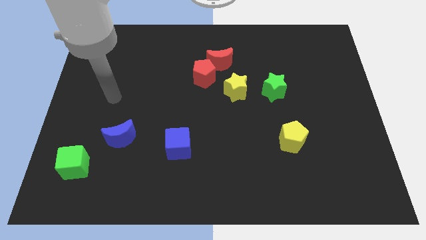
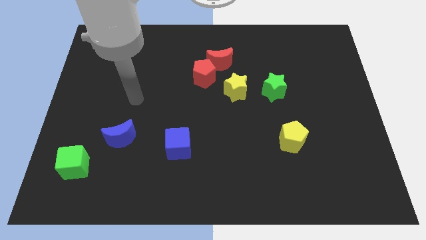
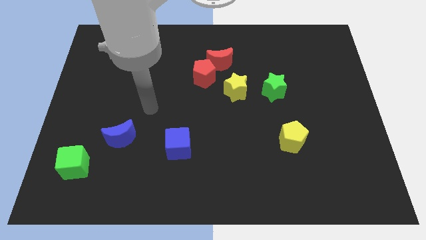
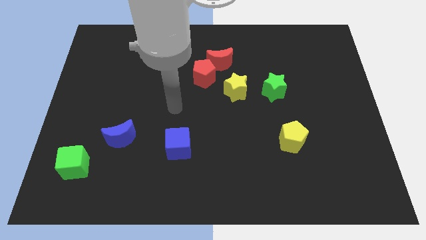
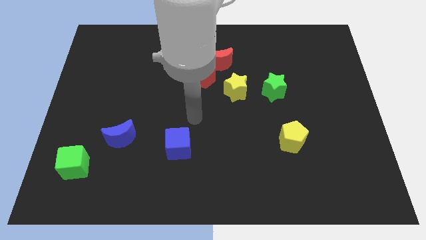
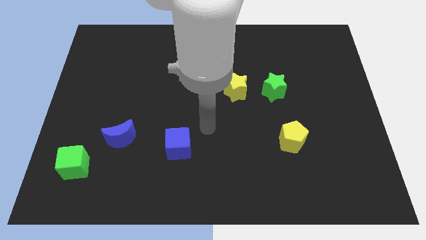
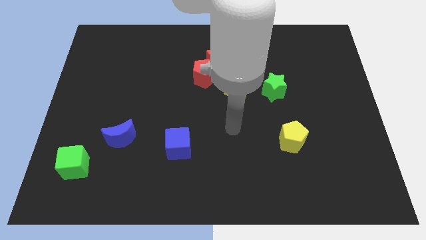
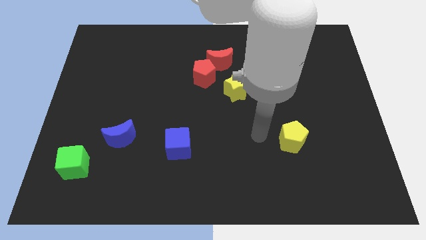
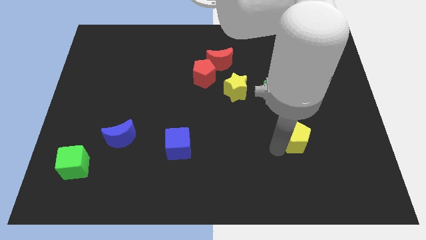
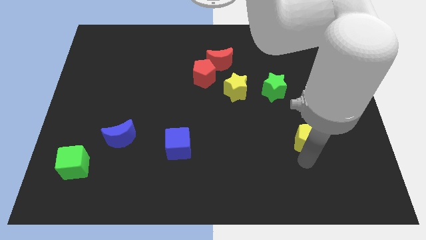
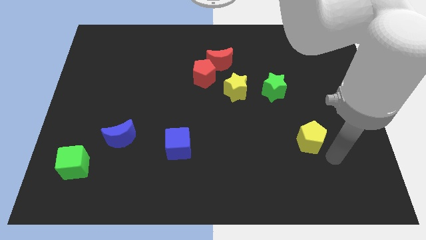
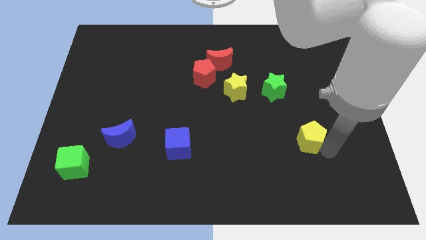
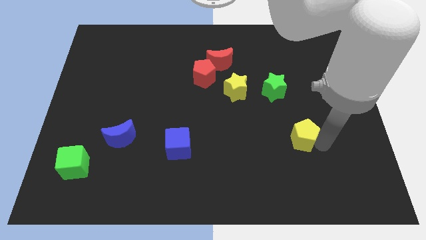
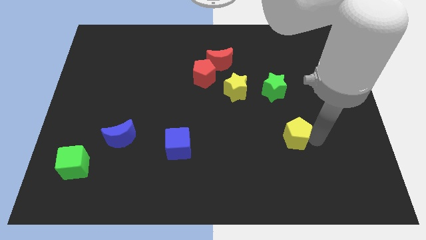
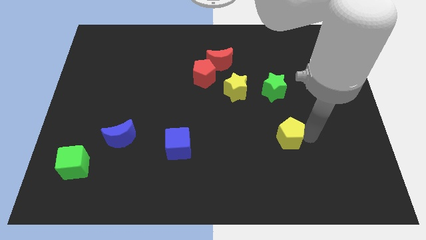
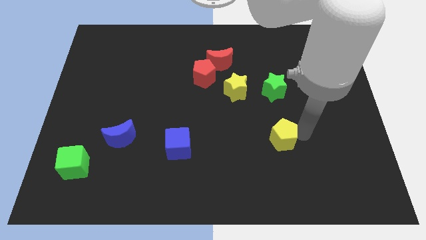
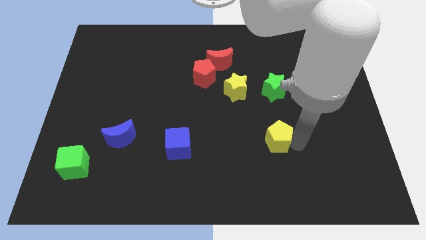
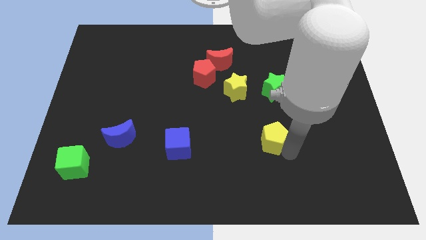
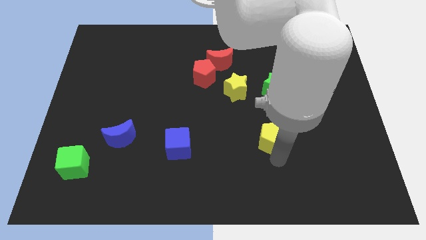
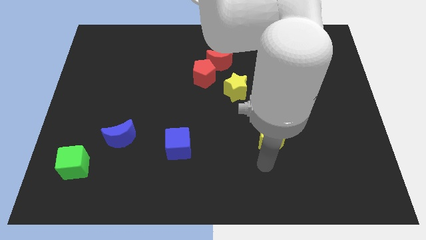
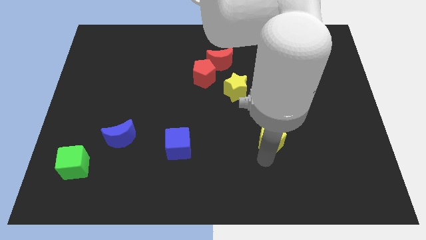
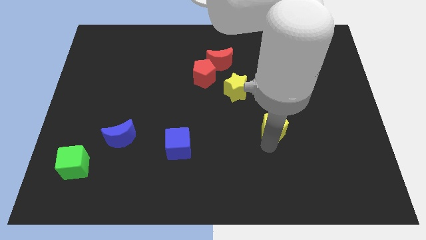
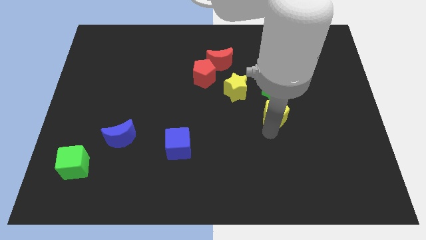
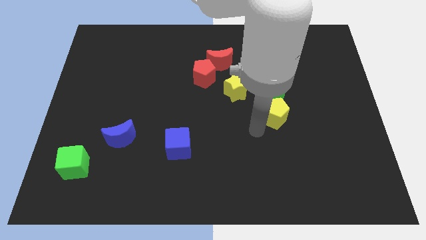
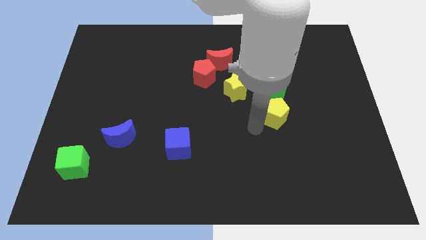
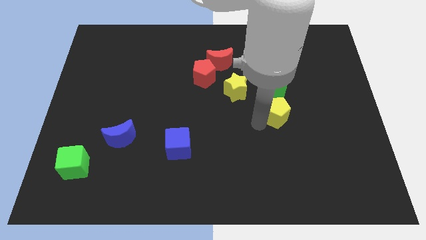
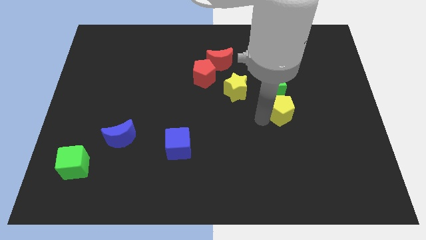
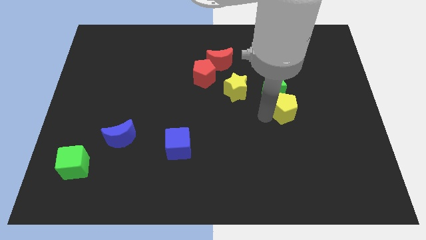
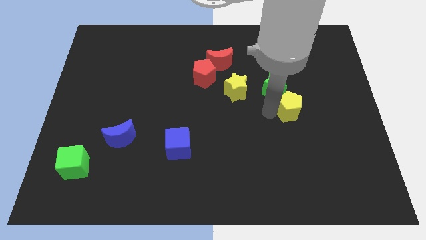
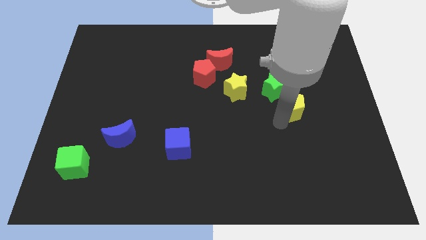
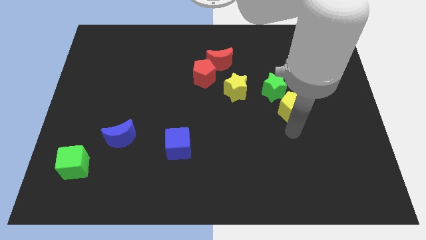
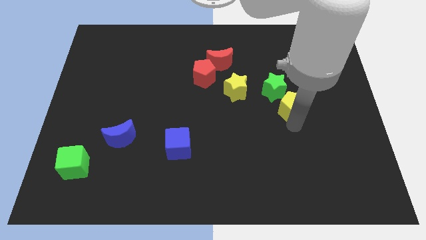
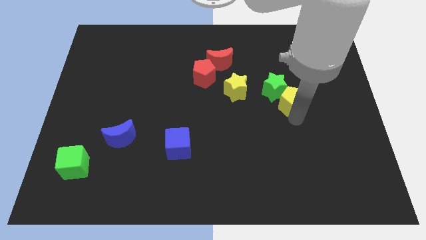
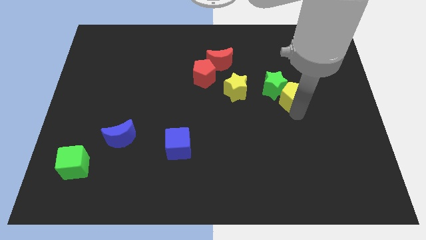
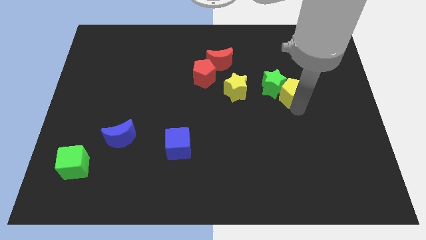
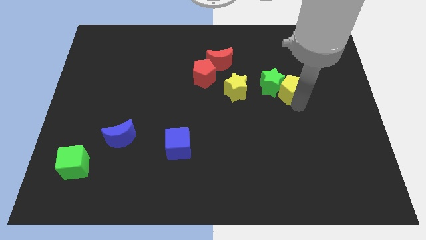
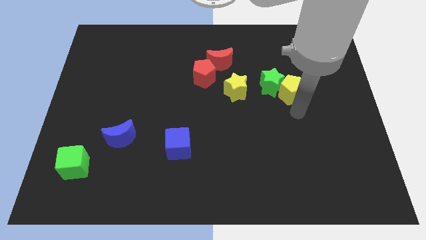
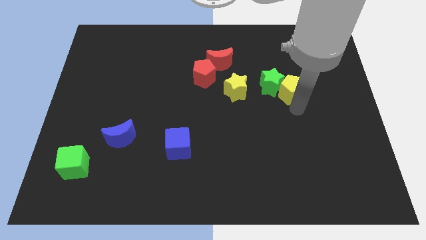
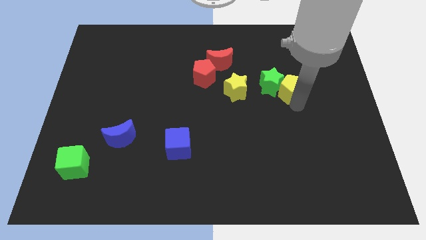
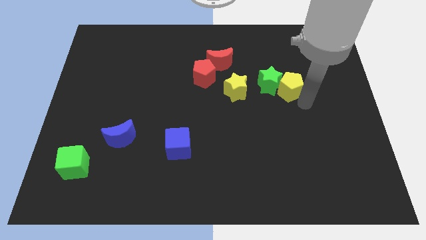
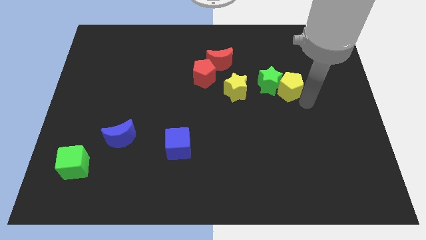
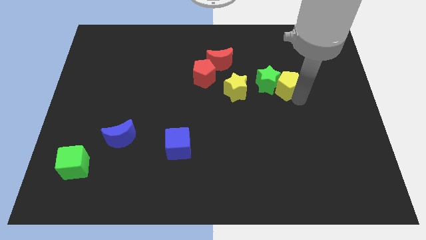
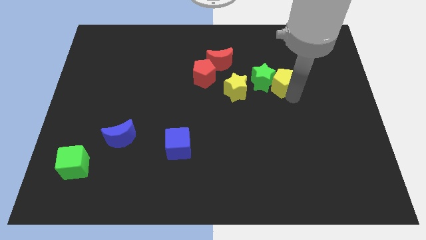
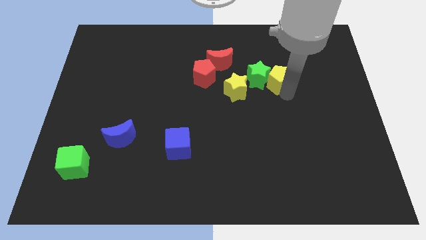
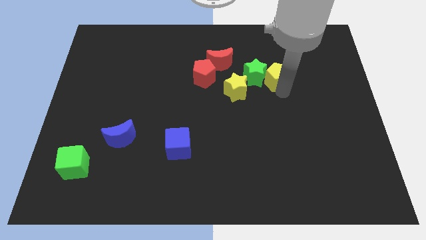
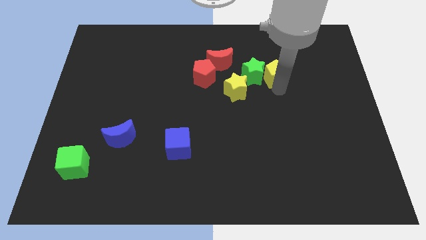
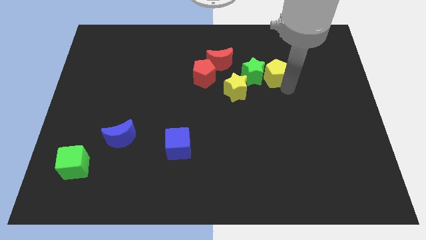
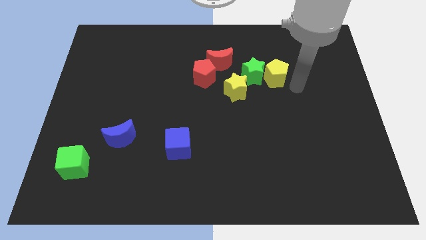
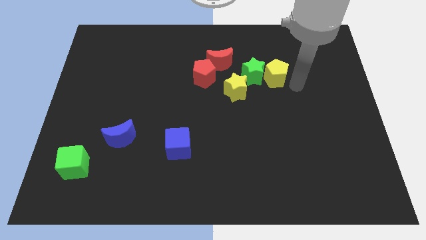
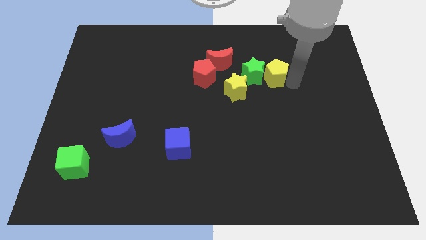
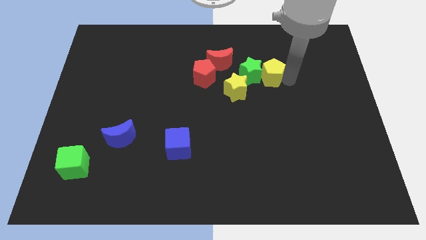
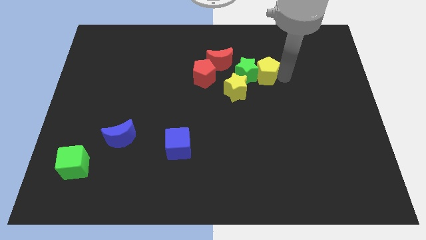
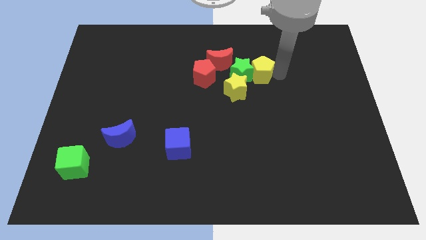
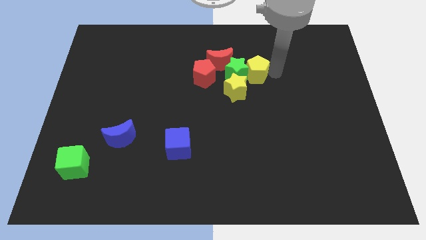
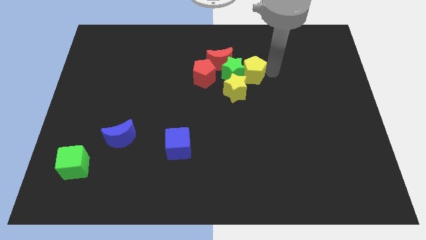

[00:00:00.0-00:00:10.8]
push the yellow pentagon to the top side of the yellow star
